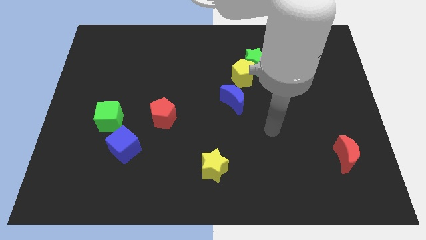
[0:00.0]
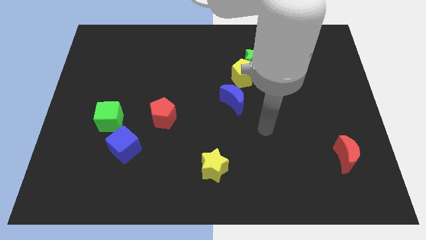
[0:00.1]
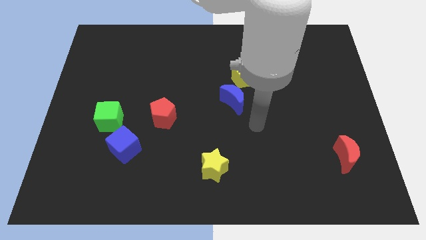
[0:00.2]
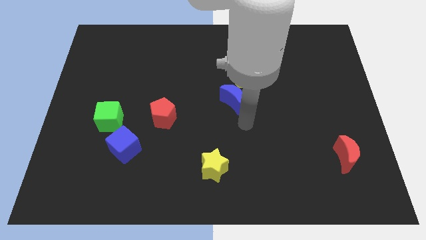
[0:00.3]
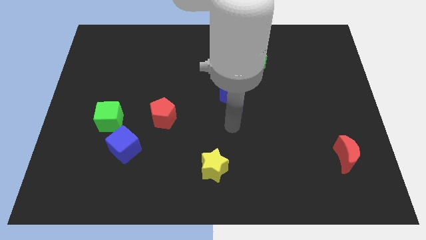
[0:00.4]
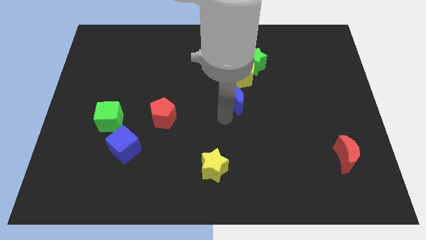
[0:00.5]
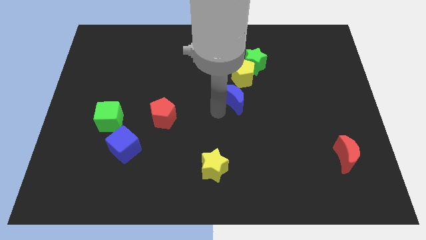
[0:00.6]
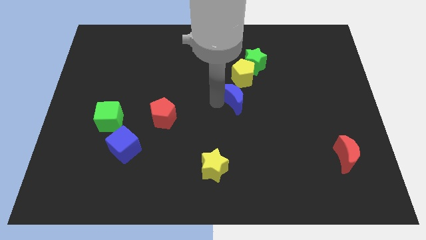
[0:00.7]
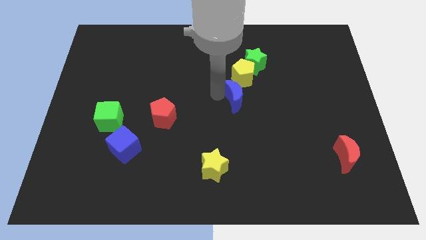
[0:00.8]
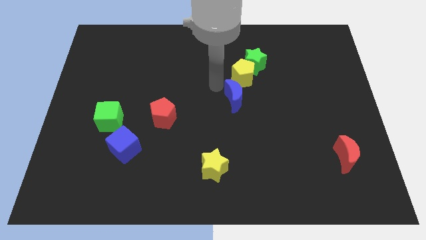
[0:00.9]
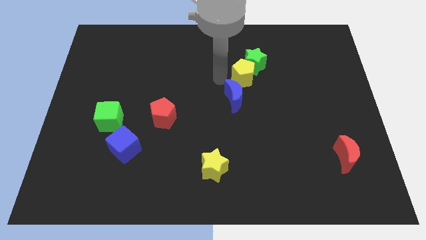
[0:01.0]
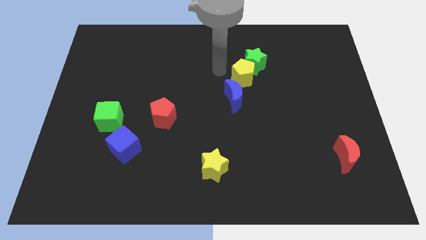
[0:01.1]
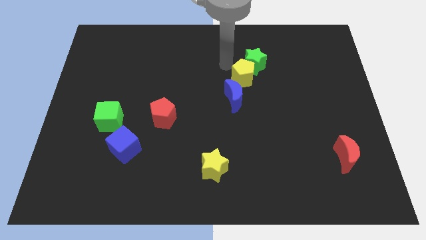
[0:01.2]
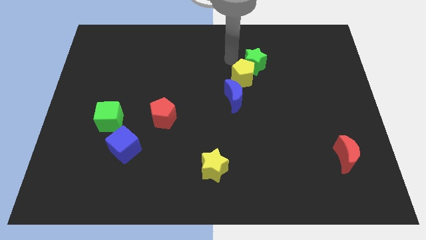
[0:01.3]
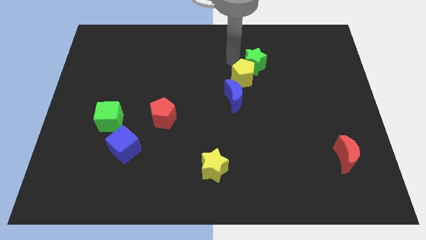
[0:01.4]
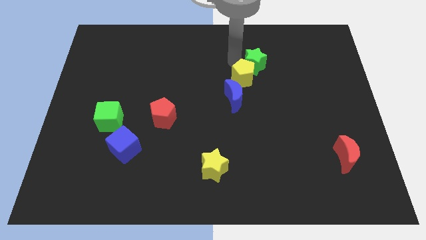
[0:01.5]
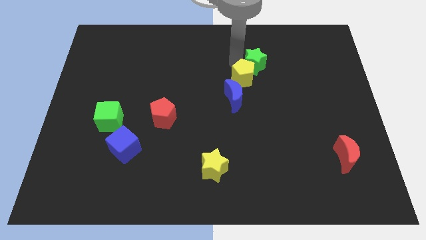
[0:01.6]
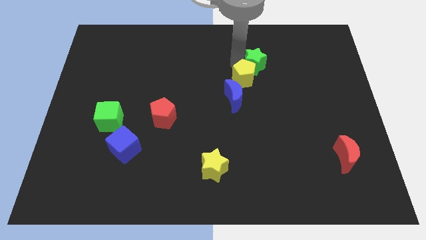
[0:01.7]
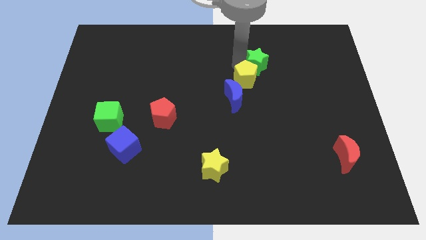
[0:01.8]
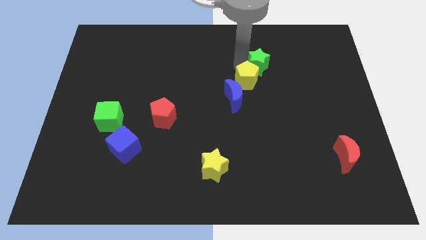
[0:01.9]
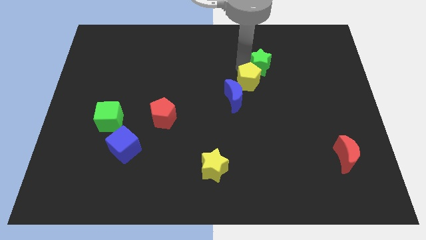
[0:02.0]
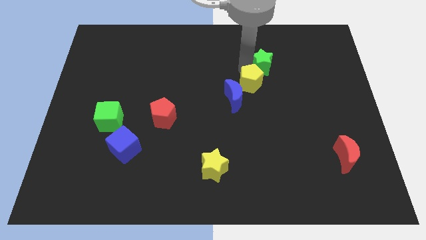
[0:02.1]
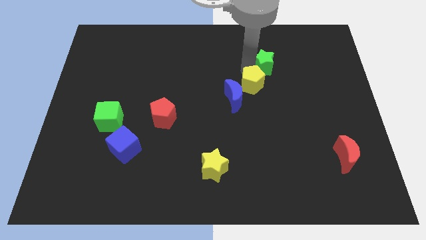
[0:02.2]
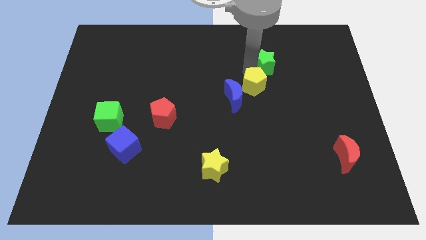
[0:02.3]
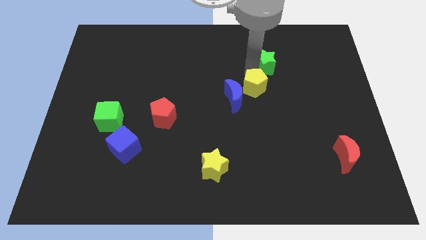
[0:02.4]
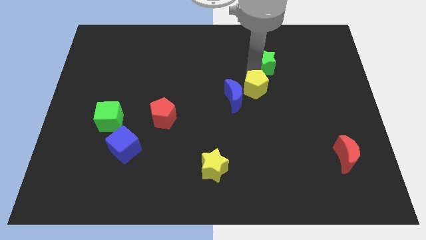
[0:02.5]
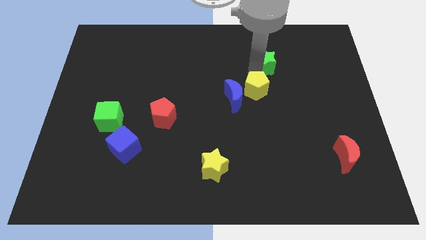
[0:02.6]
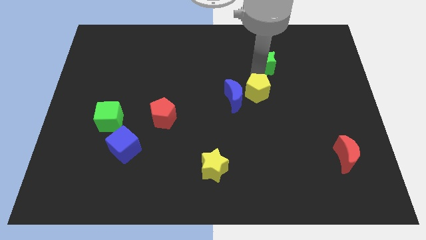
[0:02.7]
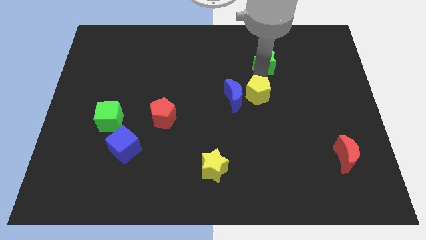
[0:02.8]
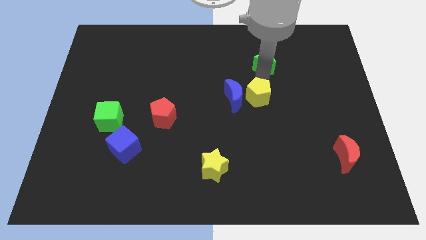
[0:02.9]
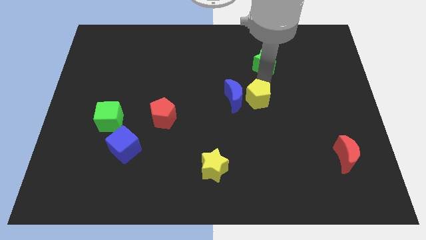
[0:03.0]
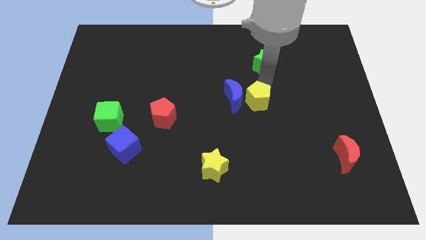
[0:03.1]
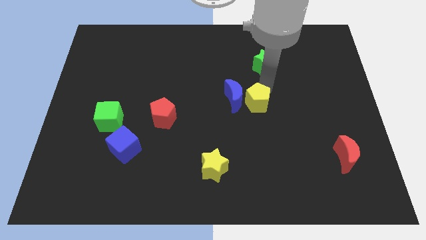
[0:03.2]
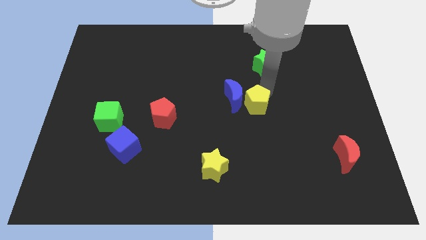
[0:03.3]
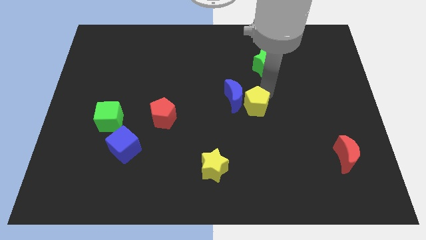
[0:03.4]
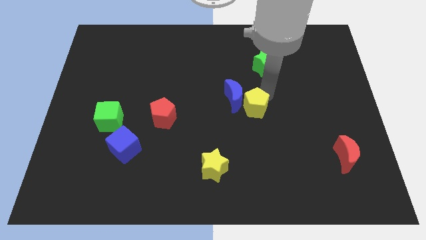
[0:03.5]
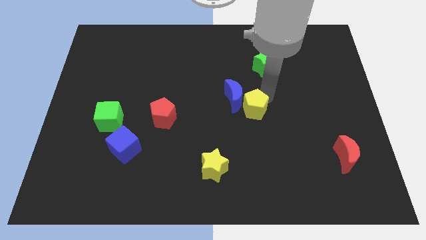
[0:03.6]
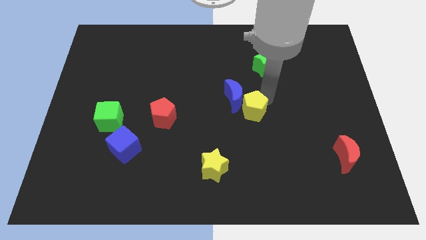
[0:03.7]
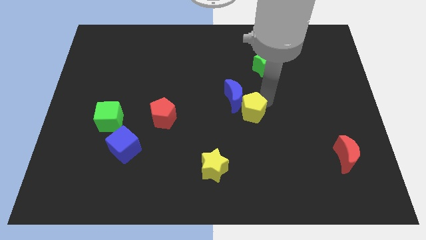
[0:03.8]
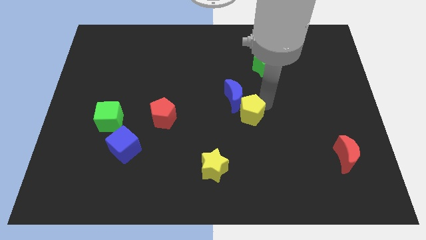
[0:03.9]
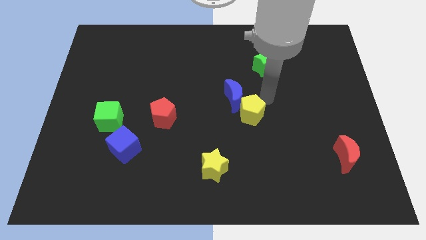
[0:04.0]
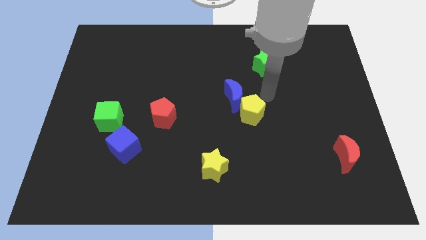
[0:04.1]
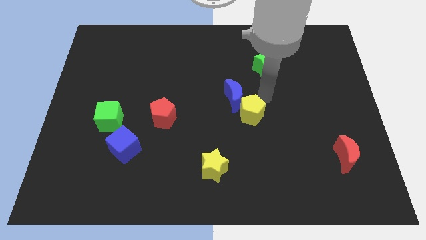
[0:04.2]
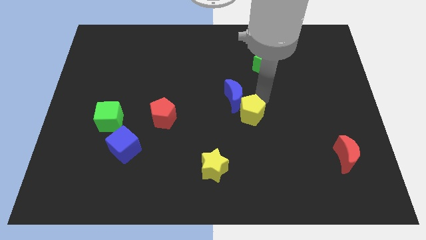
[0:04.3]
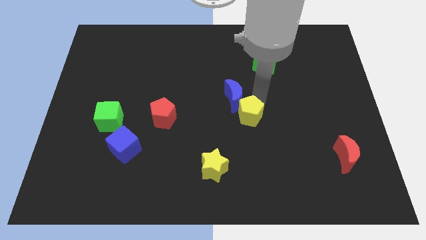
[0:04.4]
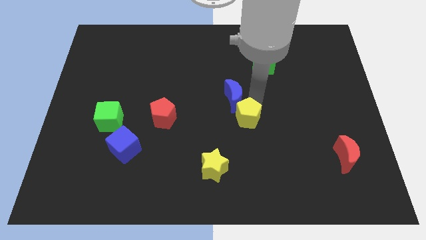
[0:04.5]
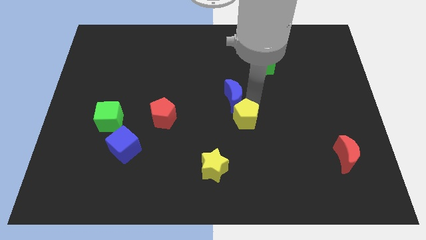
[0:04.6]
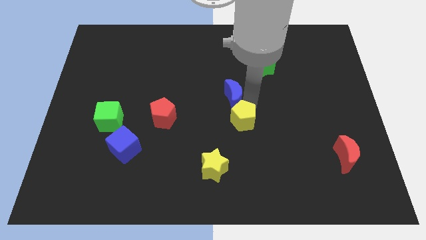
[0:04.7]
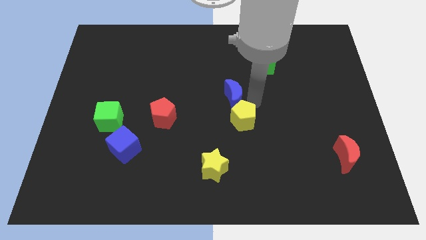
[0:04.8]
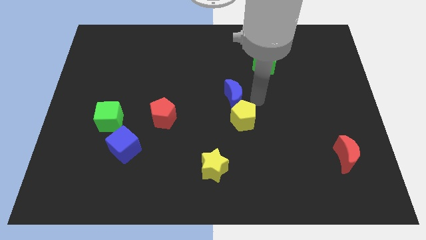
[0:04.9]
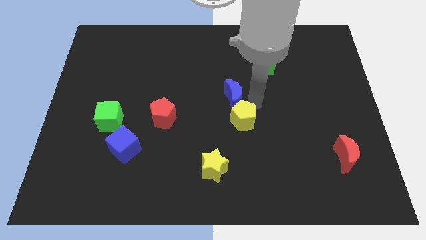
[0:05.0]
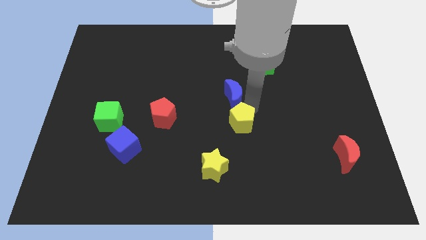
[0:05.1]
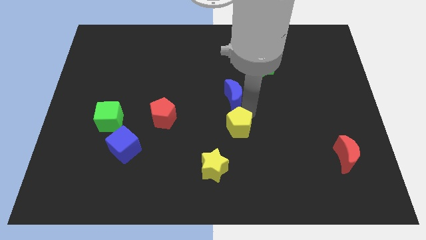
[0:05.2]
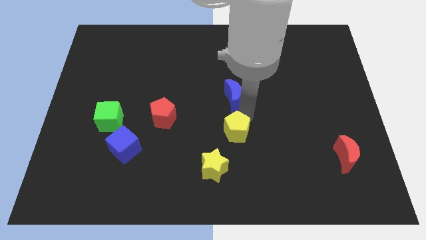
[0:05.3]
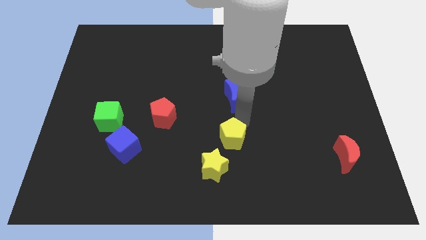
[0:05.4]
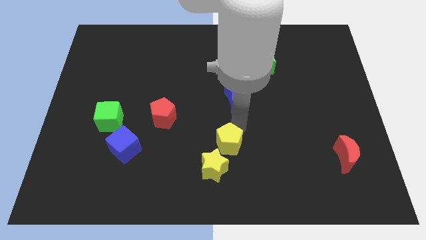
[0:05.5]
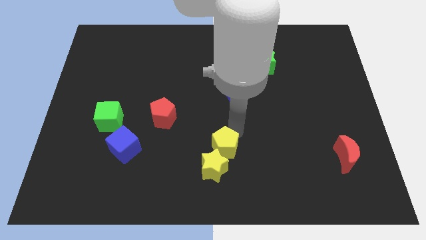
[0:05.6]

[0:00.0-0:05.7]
slide the yellow pentagon to the yellow star

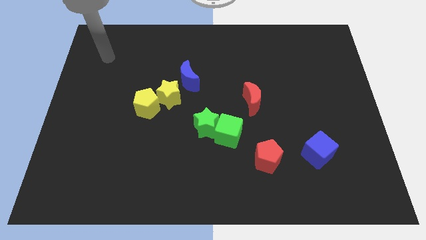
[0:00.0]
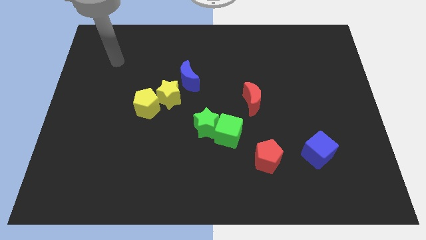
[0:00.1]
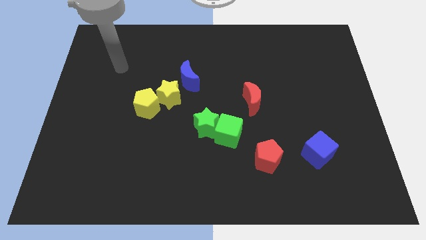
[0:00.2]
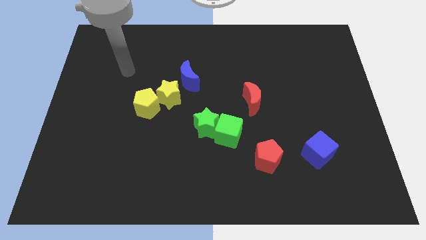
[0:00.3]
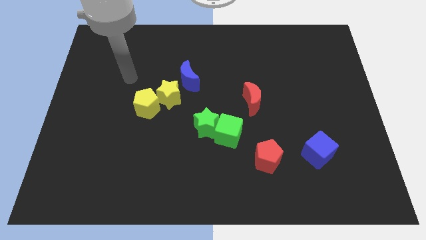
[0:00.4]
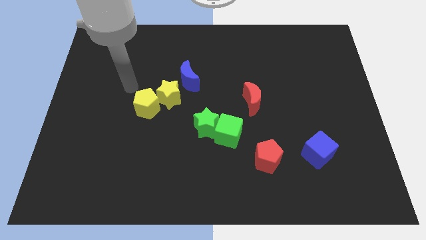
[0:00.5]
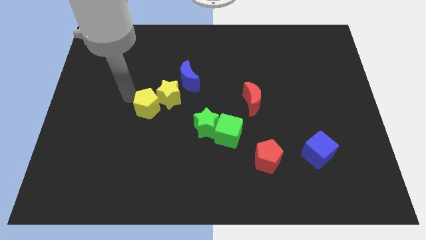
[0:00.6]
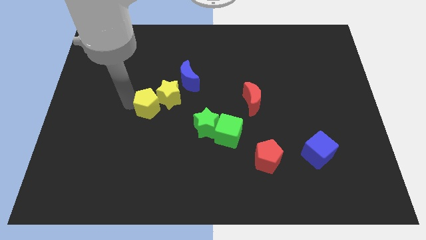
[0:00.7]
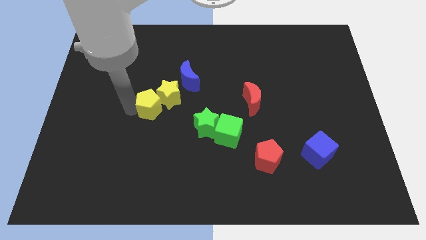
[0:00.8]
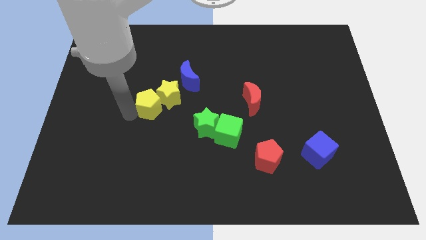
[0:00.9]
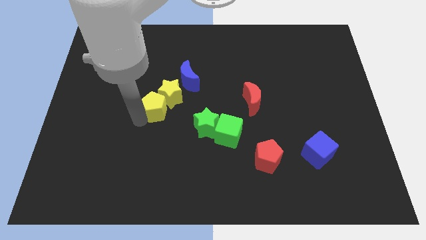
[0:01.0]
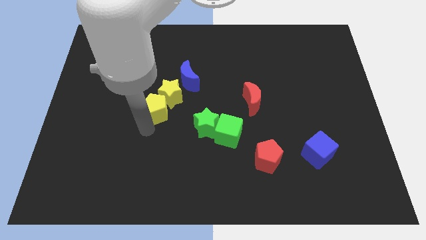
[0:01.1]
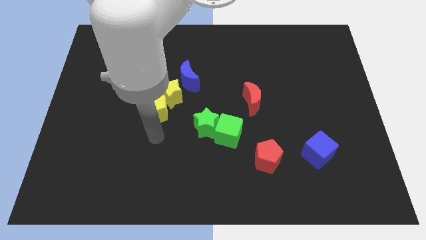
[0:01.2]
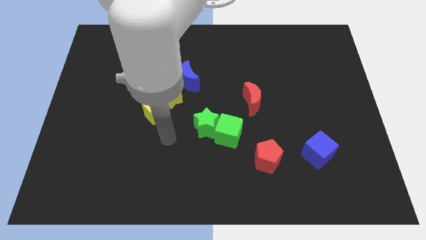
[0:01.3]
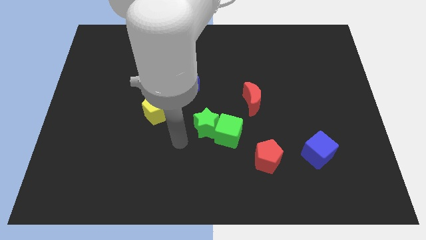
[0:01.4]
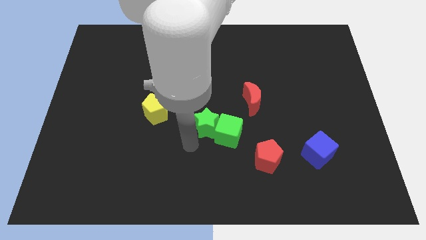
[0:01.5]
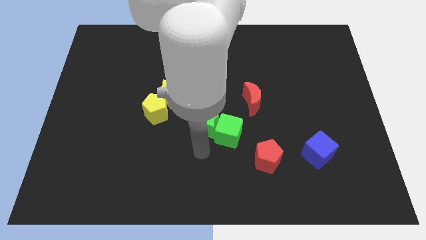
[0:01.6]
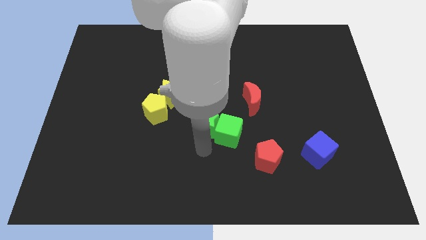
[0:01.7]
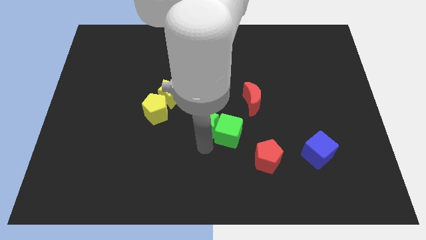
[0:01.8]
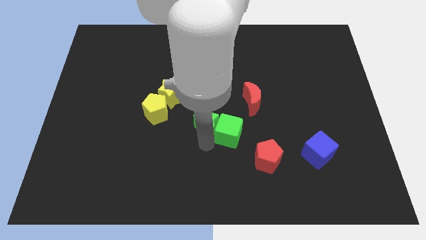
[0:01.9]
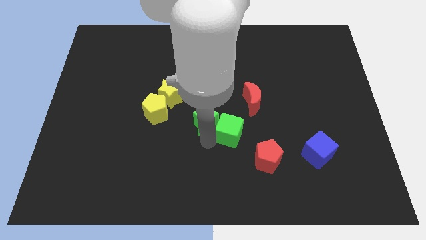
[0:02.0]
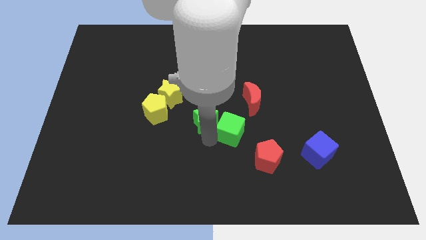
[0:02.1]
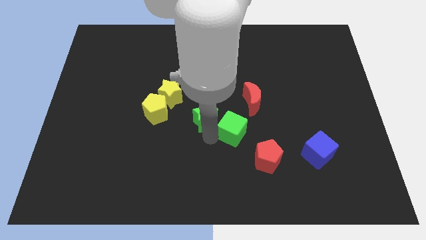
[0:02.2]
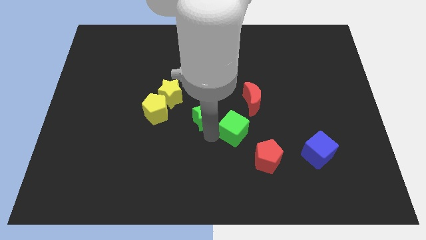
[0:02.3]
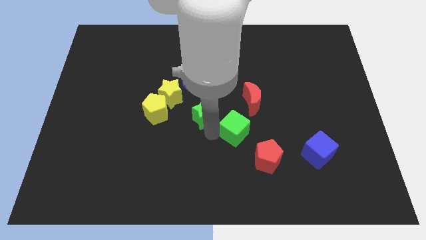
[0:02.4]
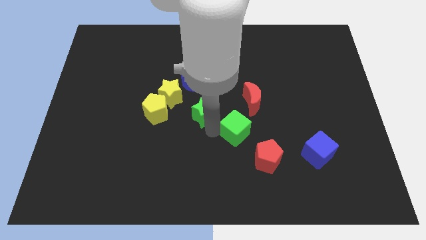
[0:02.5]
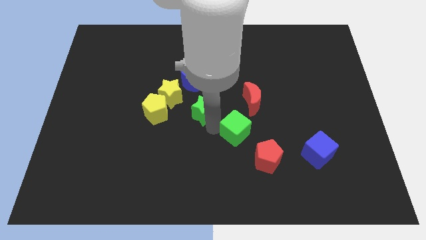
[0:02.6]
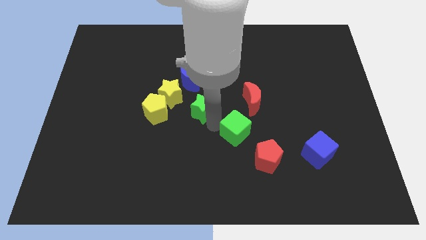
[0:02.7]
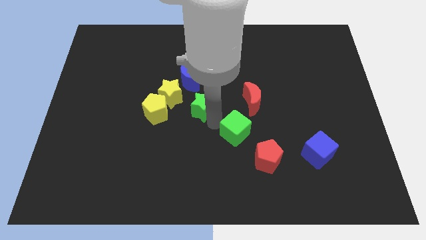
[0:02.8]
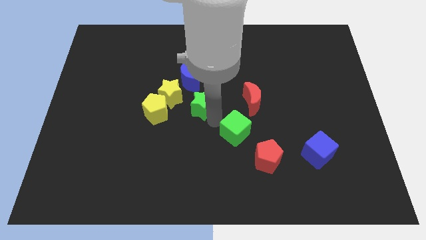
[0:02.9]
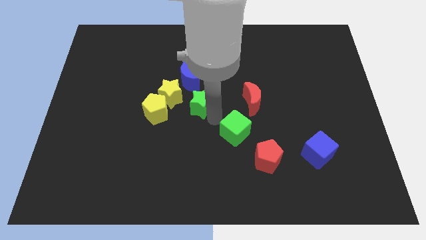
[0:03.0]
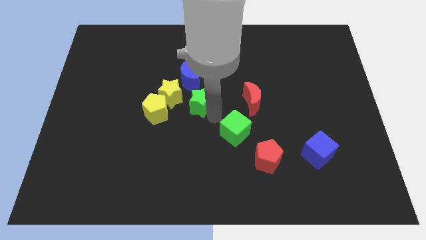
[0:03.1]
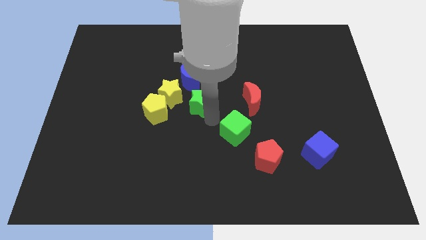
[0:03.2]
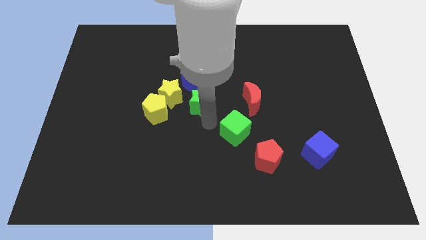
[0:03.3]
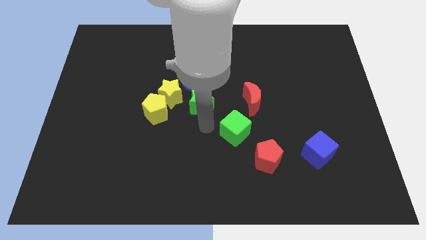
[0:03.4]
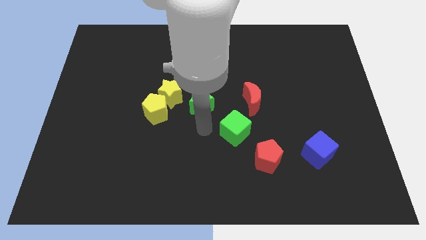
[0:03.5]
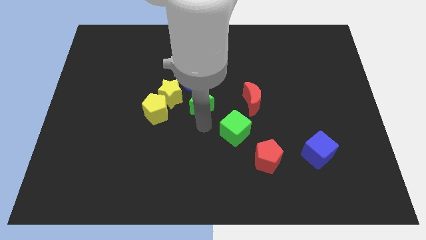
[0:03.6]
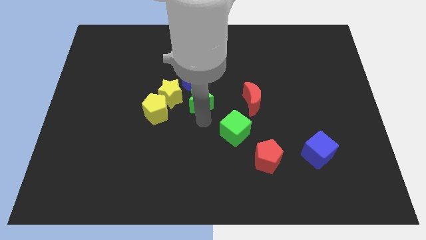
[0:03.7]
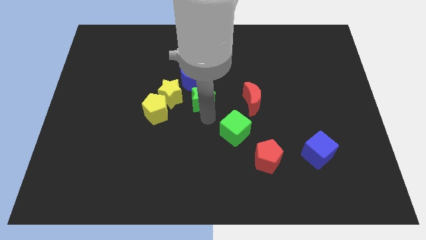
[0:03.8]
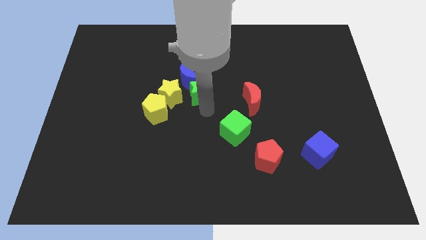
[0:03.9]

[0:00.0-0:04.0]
move the green star close to the blue moon
